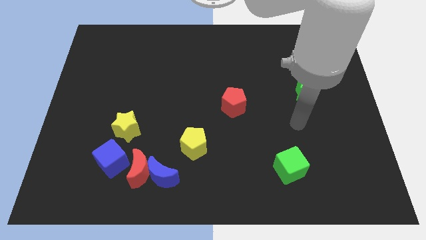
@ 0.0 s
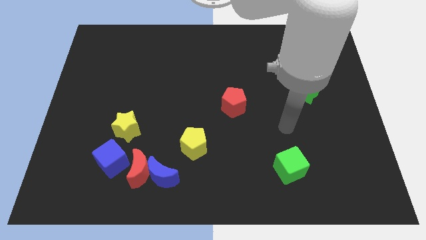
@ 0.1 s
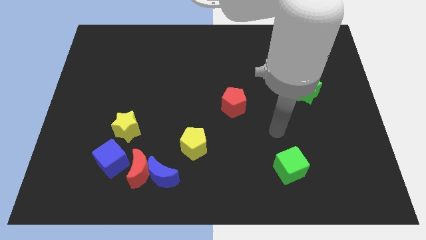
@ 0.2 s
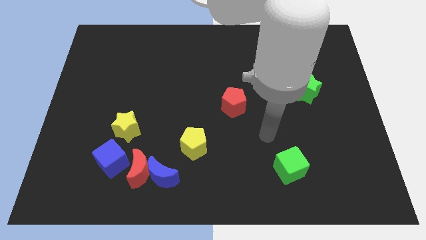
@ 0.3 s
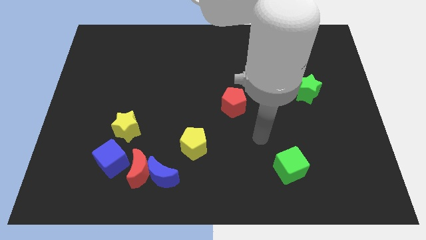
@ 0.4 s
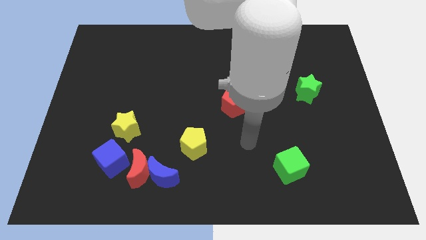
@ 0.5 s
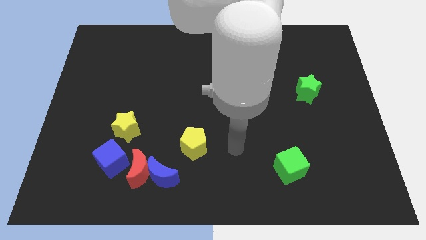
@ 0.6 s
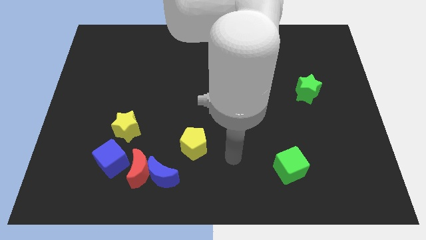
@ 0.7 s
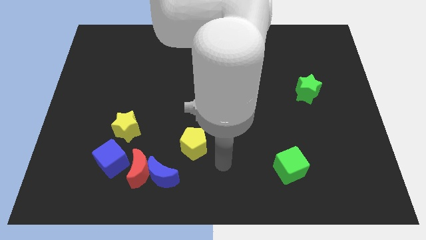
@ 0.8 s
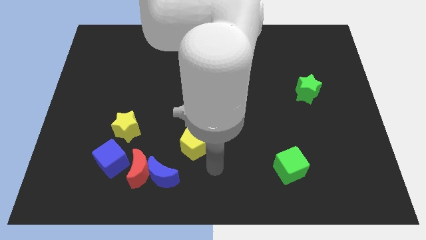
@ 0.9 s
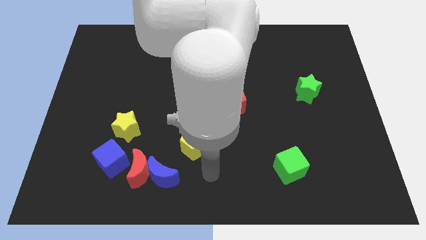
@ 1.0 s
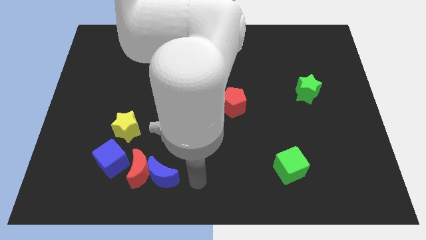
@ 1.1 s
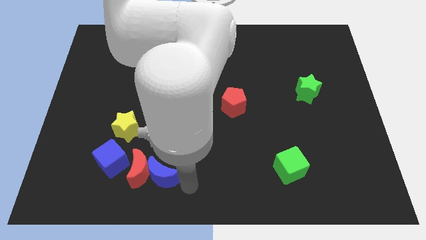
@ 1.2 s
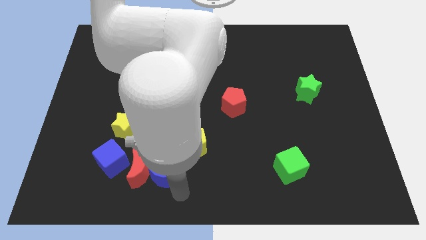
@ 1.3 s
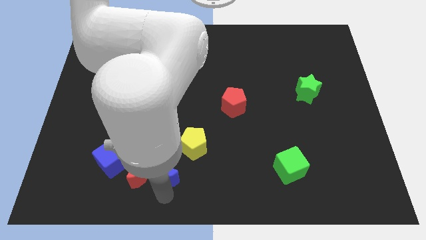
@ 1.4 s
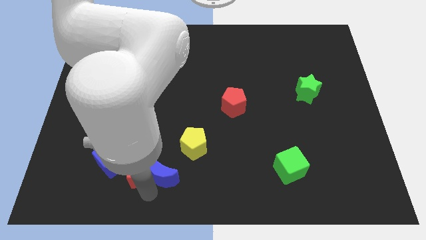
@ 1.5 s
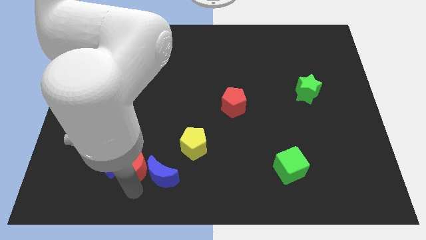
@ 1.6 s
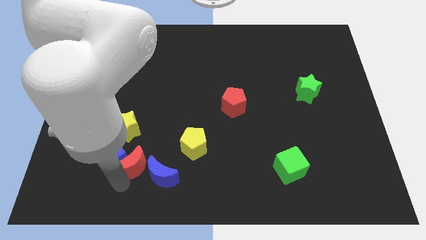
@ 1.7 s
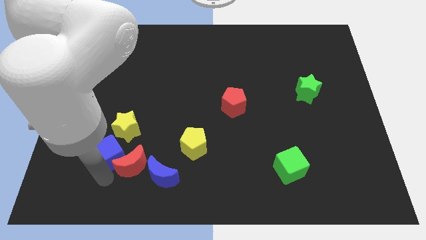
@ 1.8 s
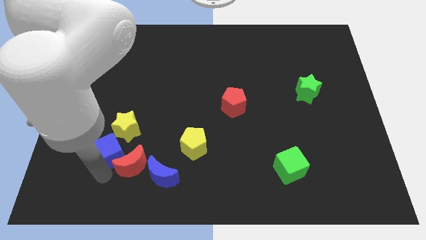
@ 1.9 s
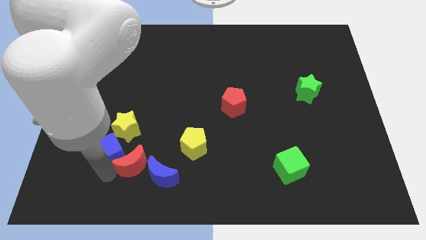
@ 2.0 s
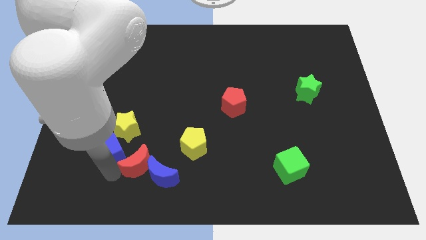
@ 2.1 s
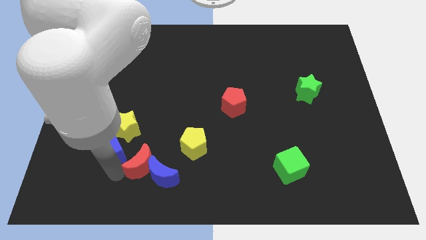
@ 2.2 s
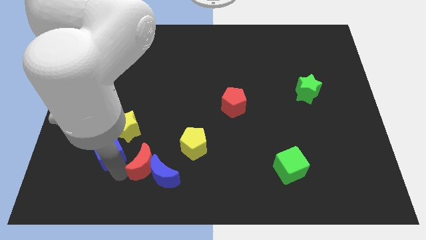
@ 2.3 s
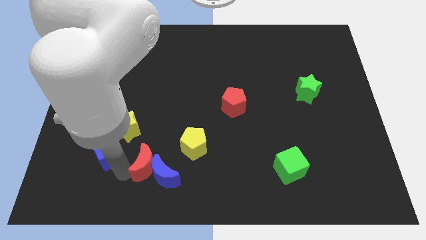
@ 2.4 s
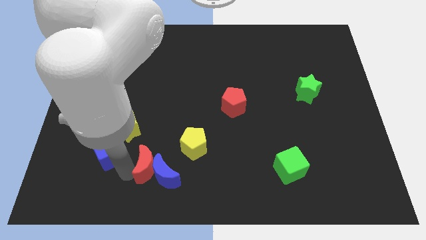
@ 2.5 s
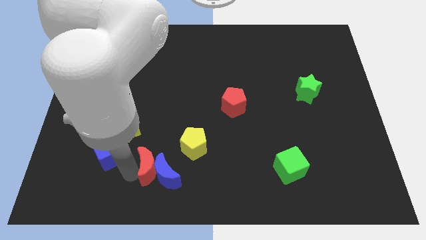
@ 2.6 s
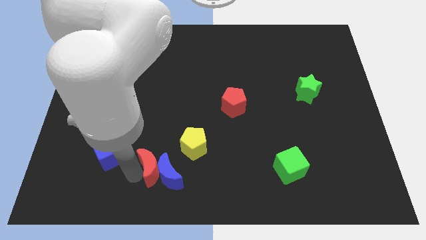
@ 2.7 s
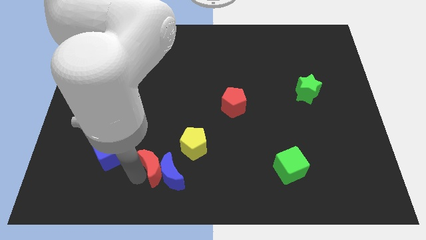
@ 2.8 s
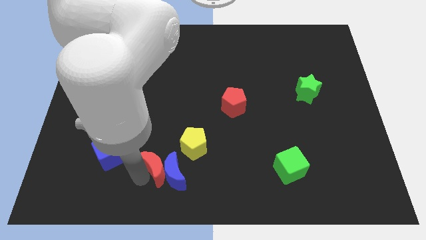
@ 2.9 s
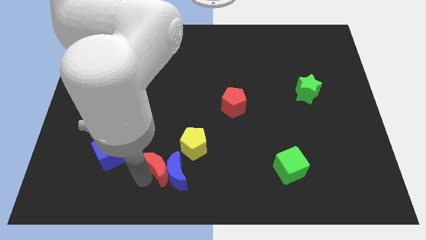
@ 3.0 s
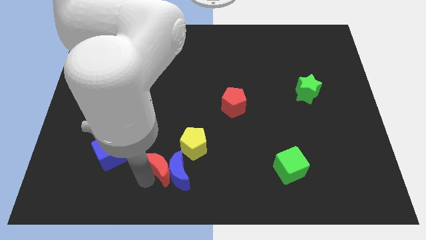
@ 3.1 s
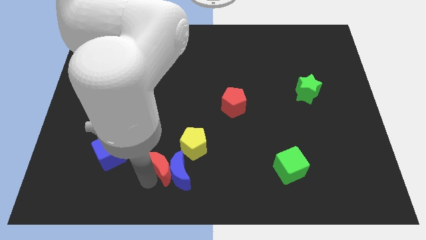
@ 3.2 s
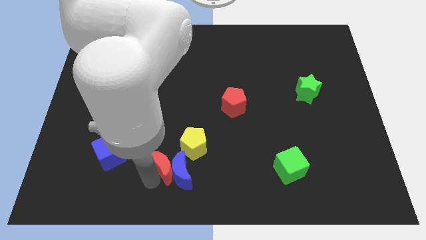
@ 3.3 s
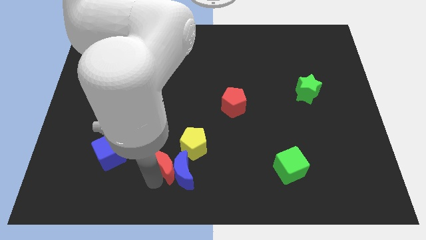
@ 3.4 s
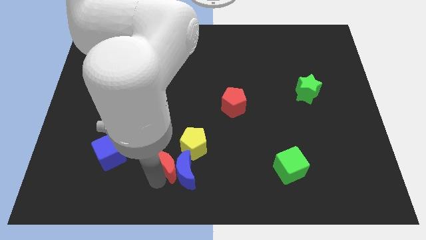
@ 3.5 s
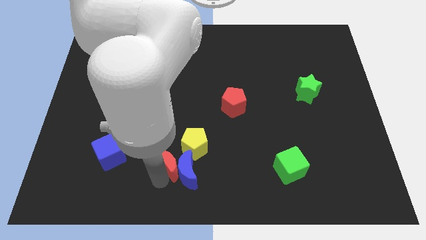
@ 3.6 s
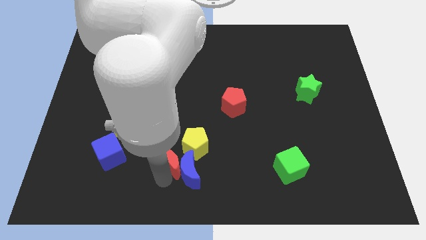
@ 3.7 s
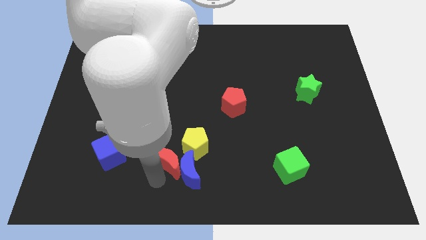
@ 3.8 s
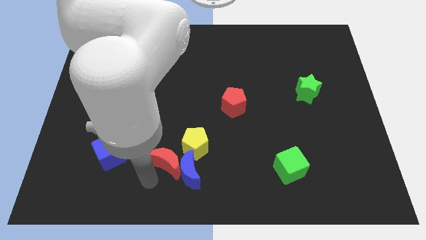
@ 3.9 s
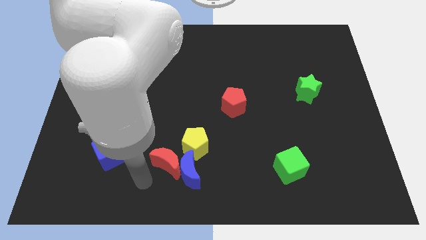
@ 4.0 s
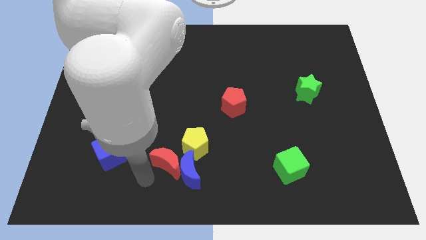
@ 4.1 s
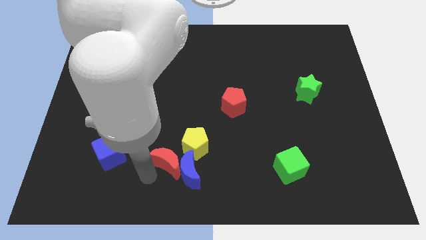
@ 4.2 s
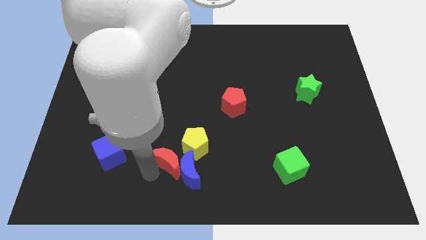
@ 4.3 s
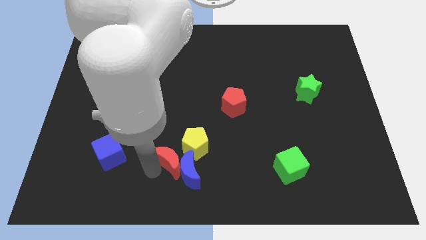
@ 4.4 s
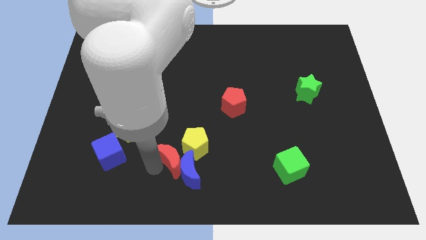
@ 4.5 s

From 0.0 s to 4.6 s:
move the red moon to the yellow pentagon

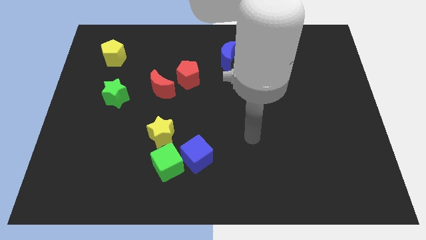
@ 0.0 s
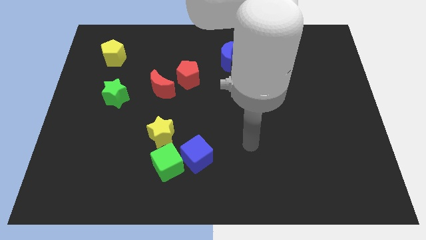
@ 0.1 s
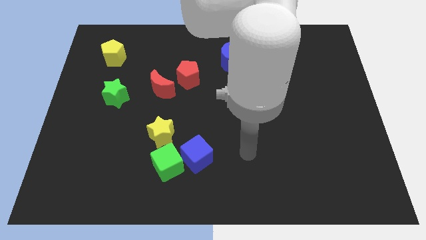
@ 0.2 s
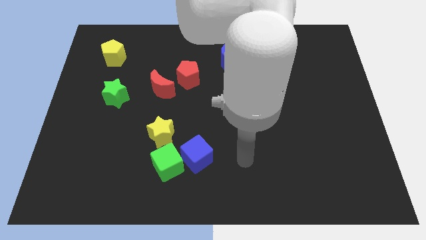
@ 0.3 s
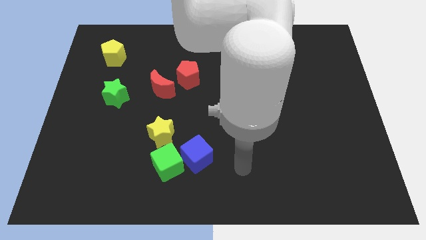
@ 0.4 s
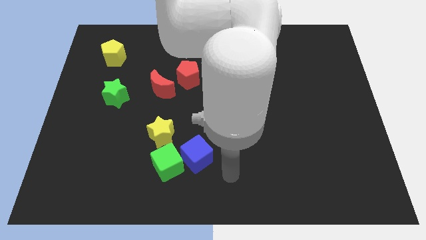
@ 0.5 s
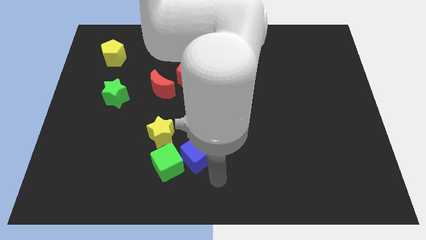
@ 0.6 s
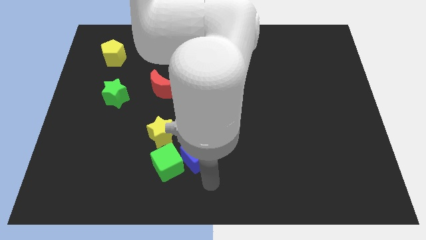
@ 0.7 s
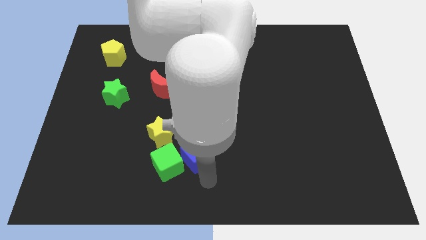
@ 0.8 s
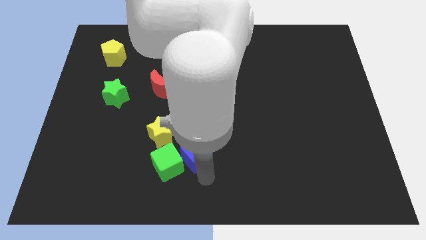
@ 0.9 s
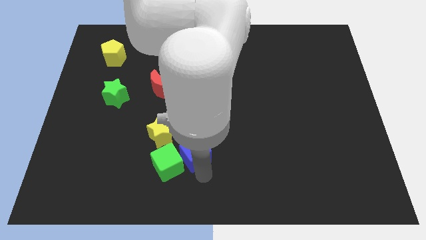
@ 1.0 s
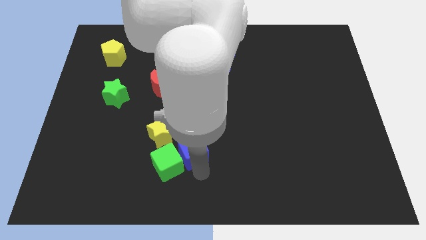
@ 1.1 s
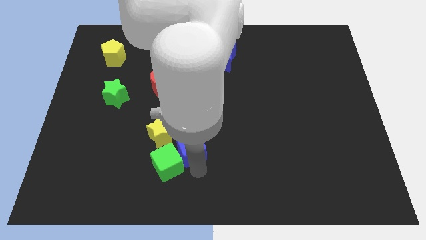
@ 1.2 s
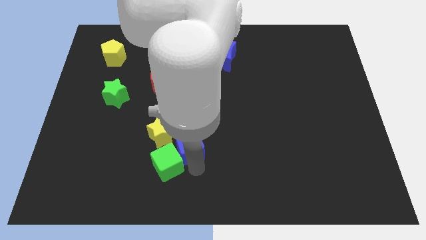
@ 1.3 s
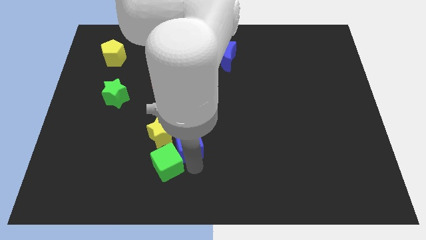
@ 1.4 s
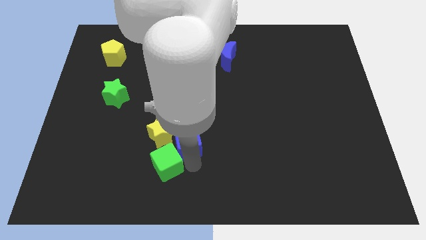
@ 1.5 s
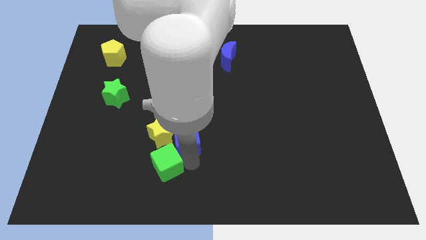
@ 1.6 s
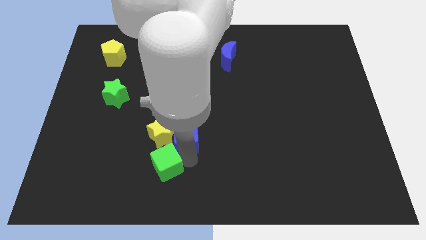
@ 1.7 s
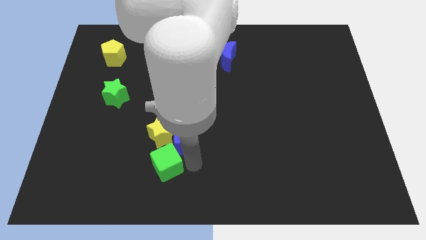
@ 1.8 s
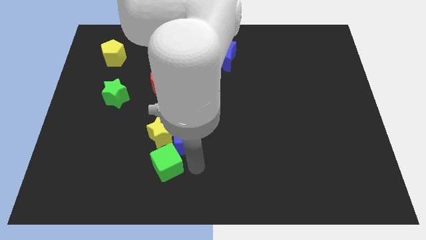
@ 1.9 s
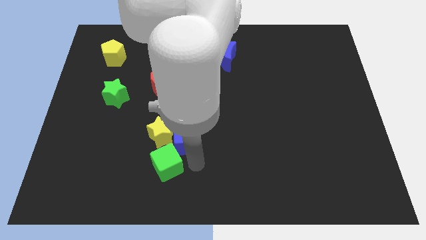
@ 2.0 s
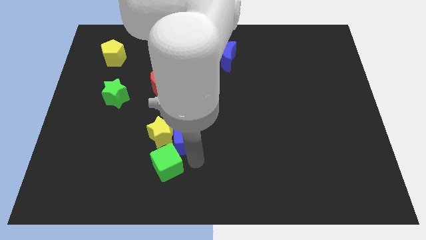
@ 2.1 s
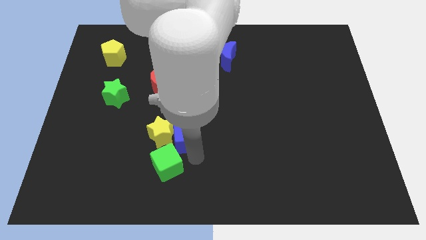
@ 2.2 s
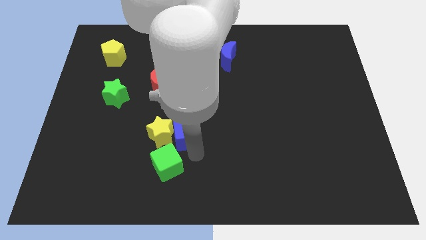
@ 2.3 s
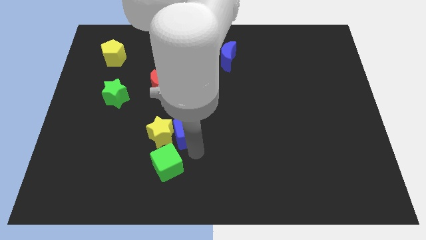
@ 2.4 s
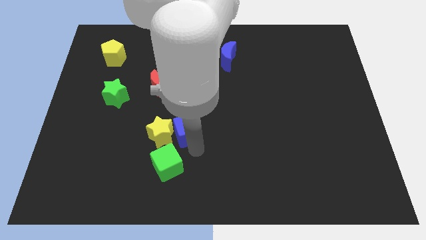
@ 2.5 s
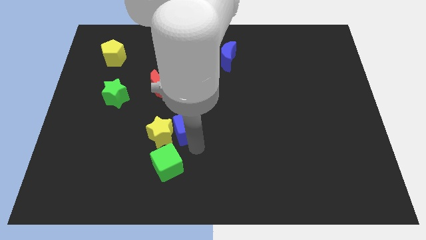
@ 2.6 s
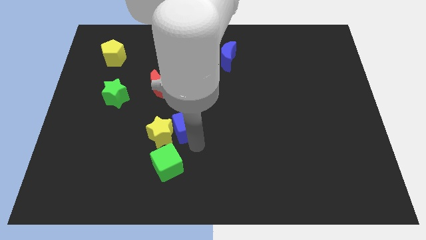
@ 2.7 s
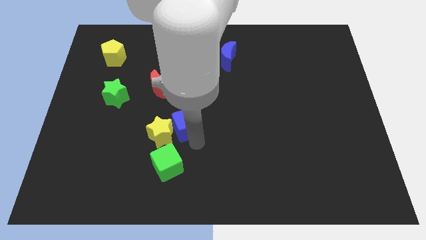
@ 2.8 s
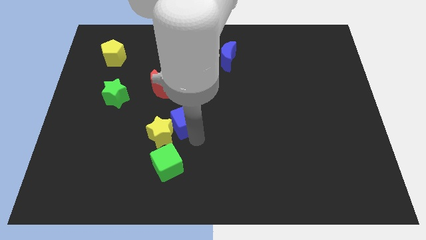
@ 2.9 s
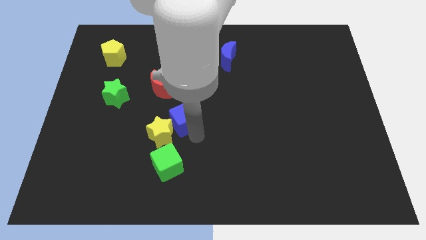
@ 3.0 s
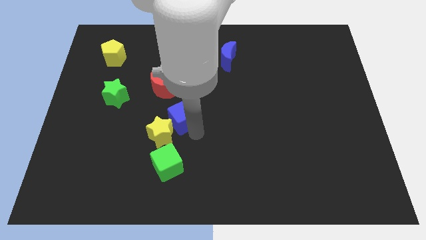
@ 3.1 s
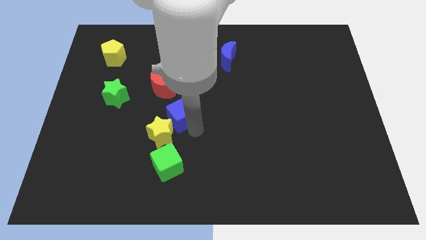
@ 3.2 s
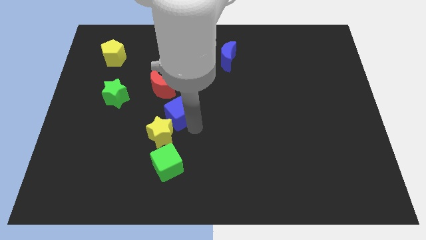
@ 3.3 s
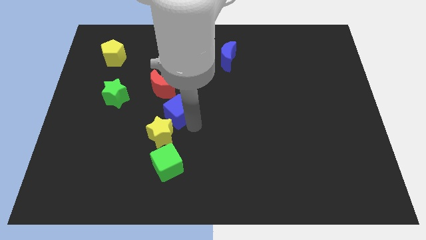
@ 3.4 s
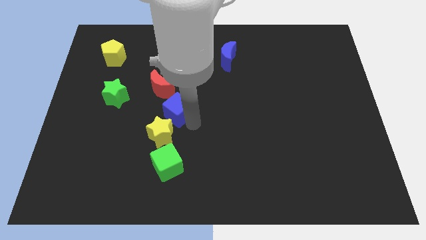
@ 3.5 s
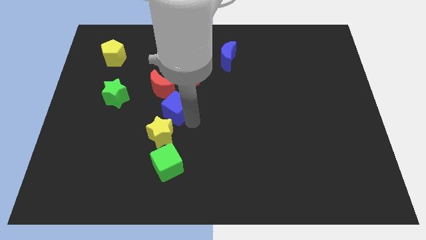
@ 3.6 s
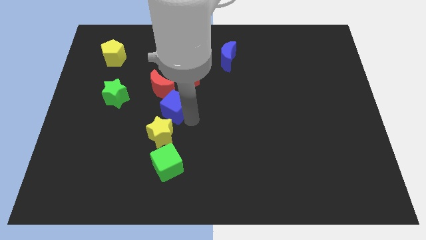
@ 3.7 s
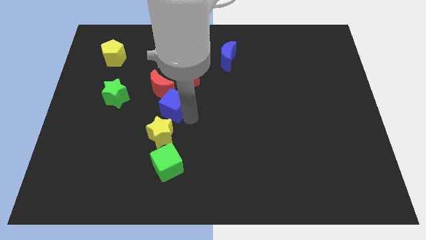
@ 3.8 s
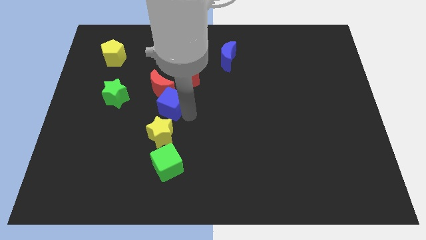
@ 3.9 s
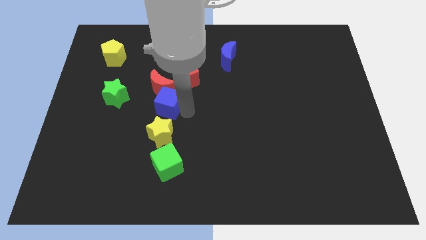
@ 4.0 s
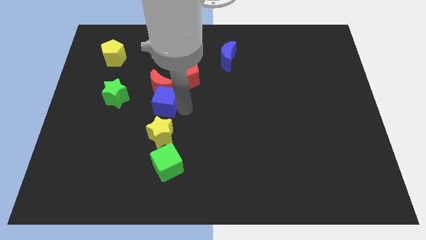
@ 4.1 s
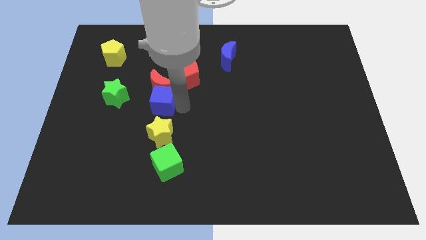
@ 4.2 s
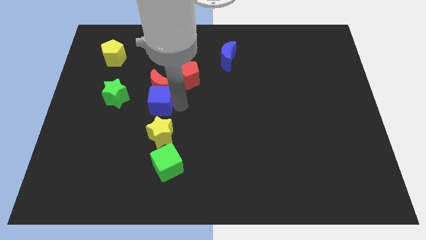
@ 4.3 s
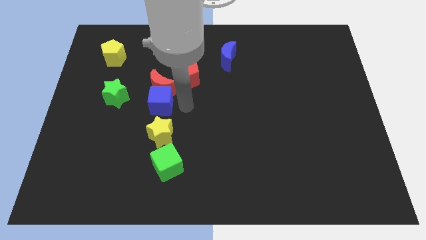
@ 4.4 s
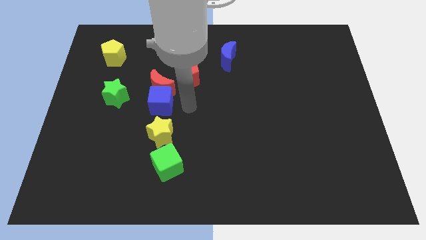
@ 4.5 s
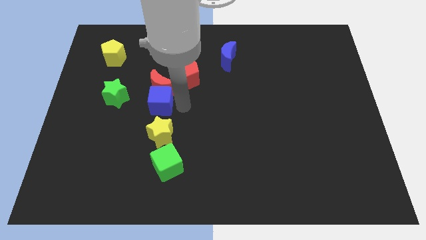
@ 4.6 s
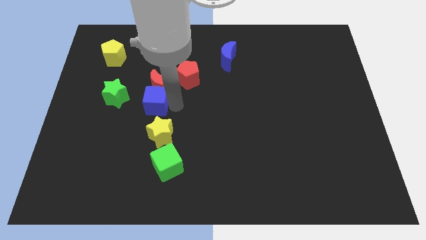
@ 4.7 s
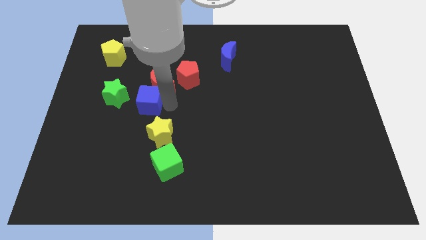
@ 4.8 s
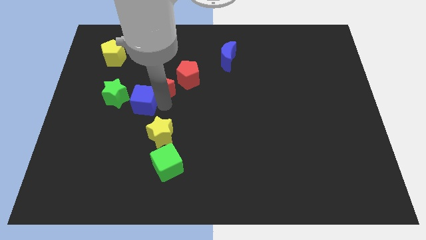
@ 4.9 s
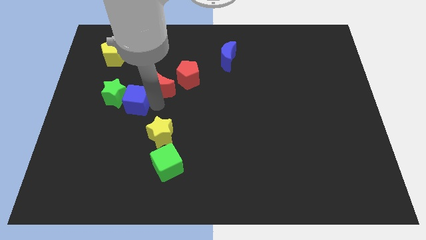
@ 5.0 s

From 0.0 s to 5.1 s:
put the blue cube close to the green star
